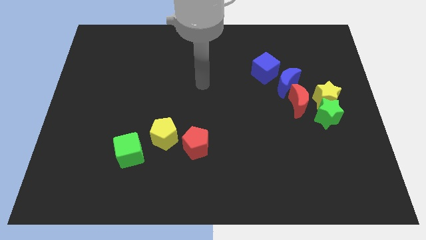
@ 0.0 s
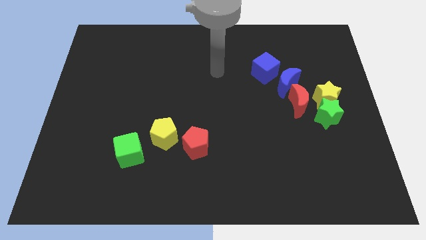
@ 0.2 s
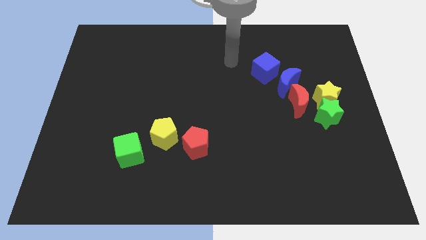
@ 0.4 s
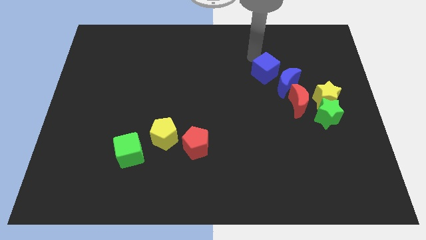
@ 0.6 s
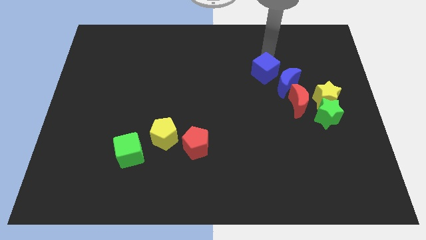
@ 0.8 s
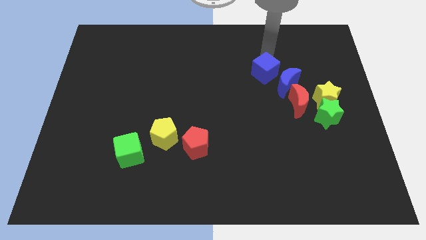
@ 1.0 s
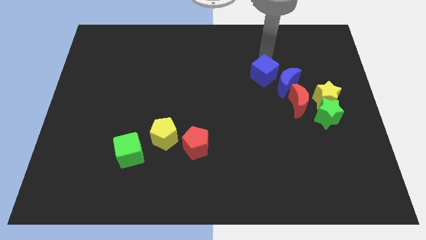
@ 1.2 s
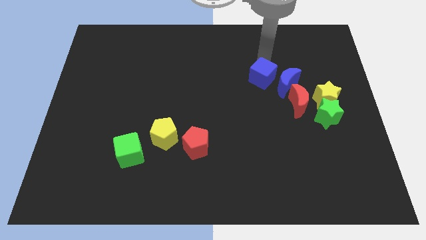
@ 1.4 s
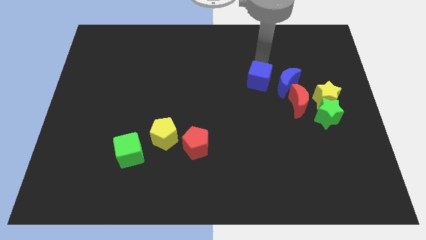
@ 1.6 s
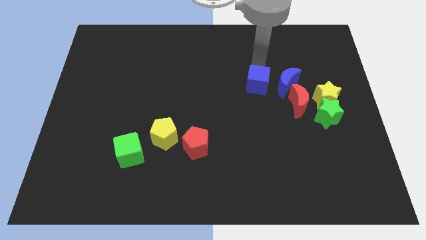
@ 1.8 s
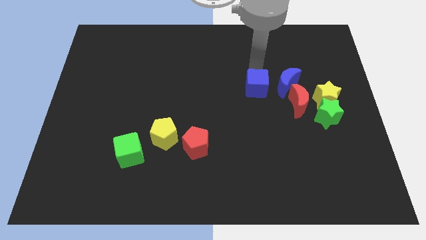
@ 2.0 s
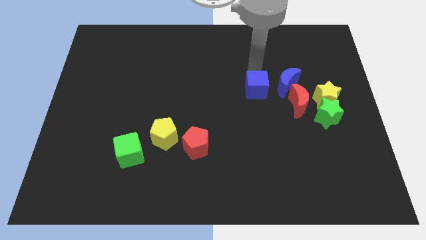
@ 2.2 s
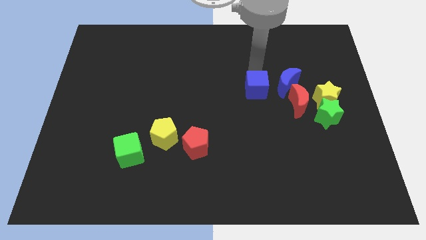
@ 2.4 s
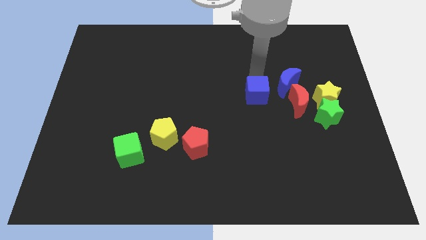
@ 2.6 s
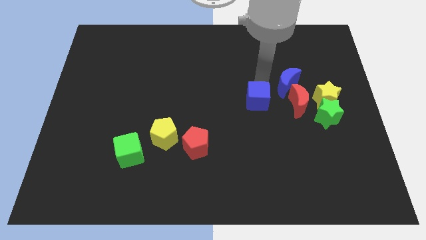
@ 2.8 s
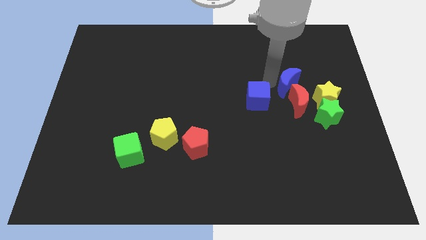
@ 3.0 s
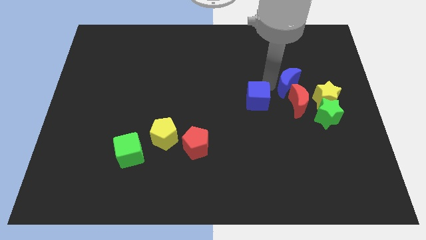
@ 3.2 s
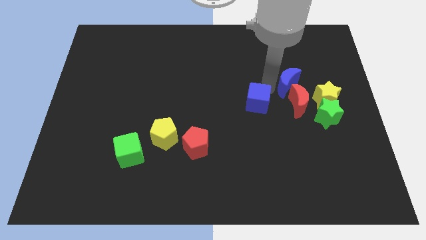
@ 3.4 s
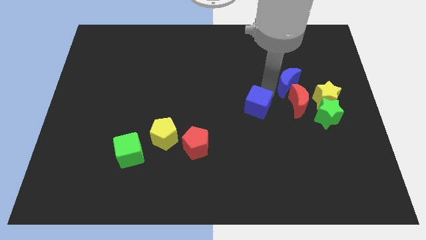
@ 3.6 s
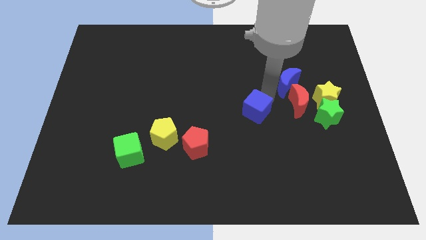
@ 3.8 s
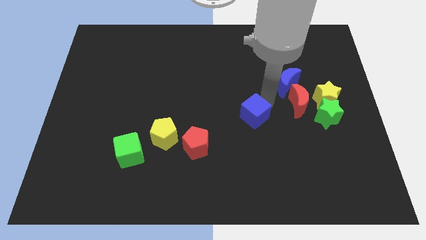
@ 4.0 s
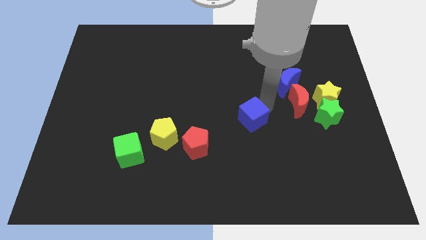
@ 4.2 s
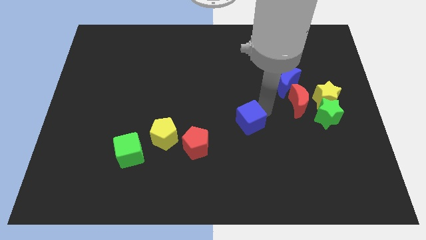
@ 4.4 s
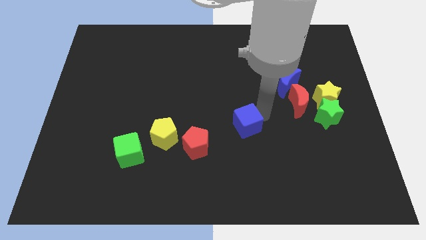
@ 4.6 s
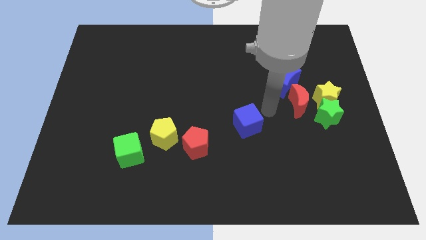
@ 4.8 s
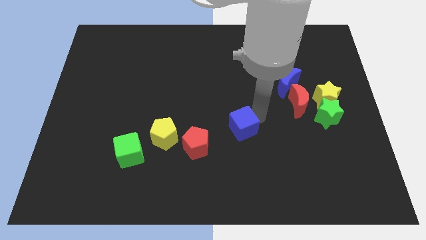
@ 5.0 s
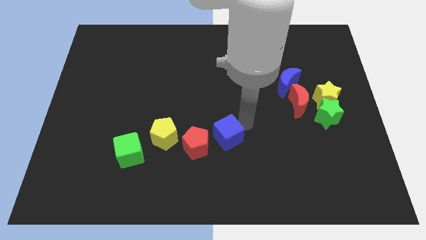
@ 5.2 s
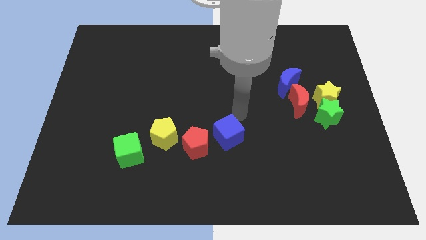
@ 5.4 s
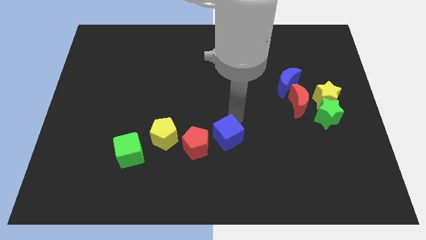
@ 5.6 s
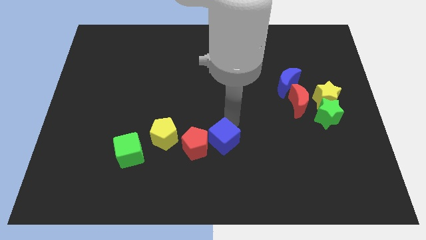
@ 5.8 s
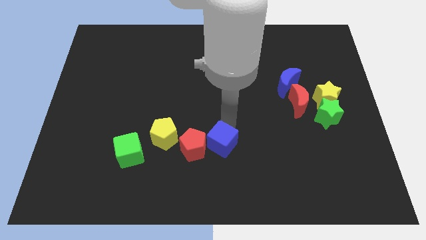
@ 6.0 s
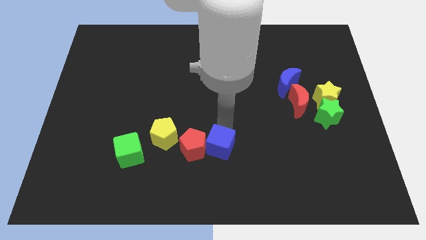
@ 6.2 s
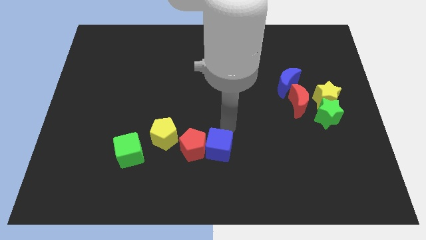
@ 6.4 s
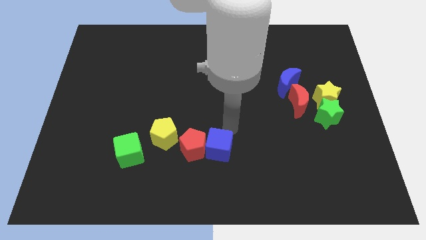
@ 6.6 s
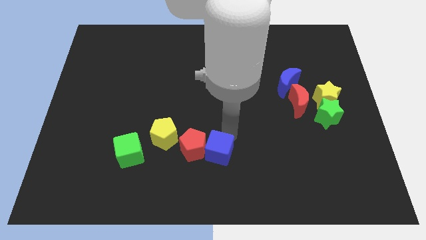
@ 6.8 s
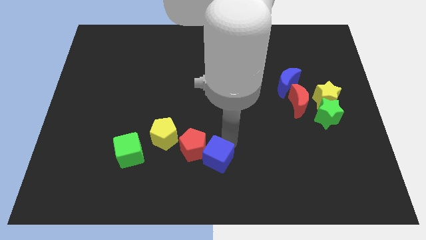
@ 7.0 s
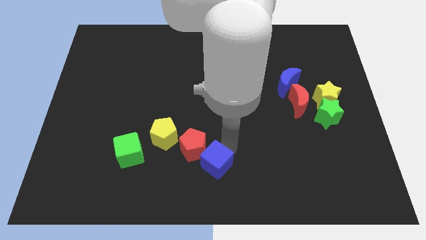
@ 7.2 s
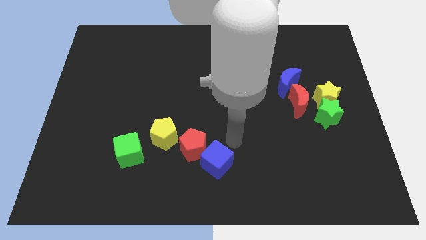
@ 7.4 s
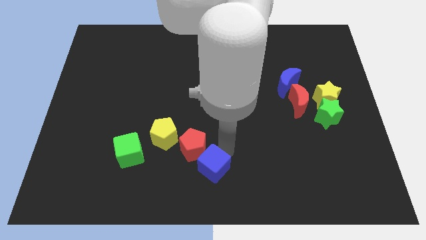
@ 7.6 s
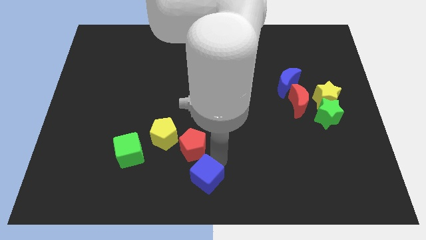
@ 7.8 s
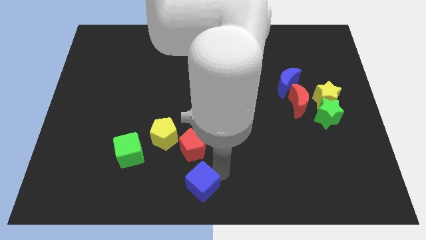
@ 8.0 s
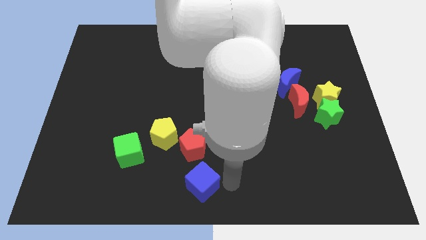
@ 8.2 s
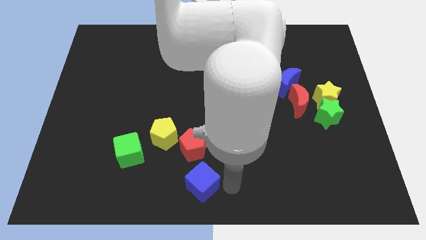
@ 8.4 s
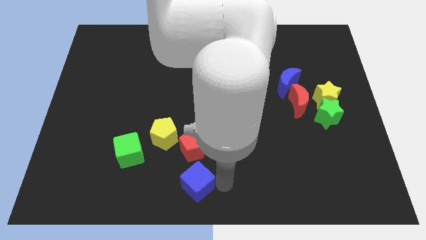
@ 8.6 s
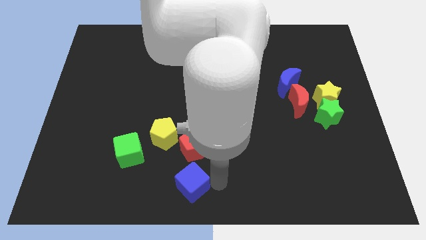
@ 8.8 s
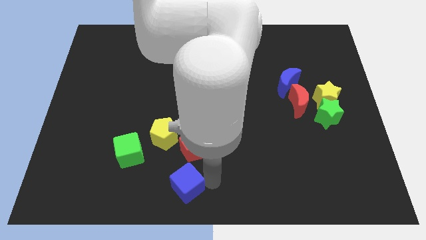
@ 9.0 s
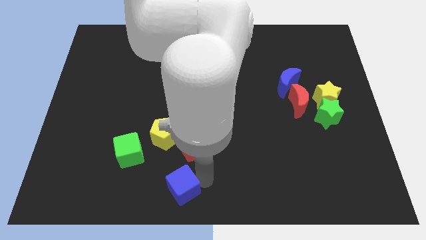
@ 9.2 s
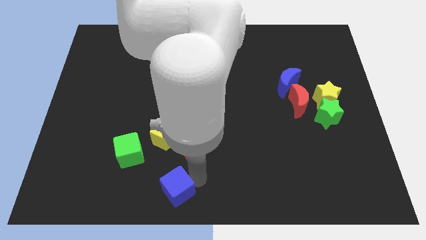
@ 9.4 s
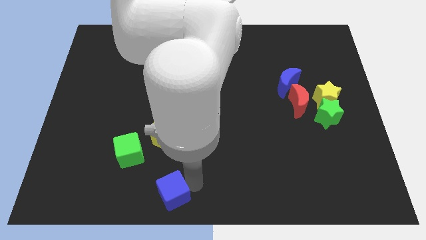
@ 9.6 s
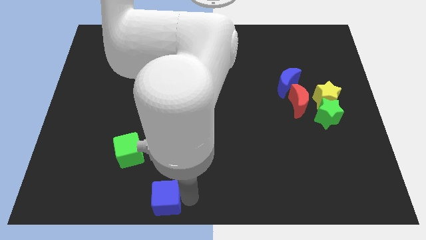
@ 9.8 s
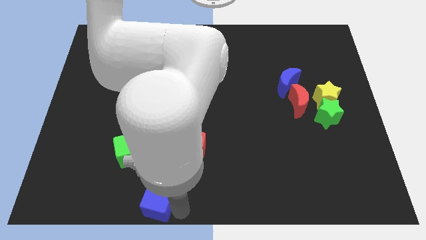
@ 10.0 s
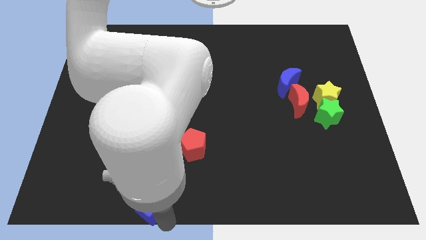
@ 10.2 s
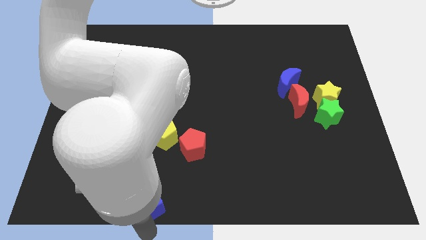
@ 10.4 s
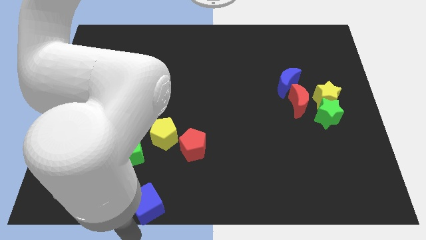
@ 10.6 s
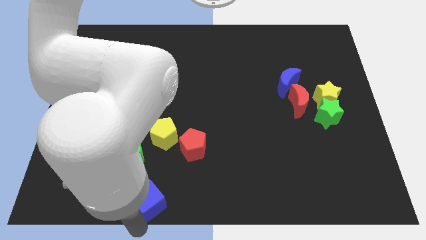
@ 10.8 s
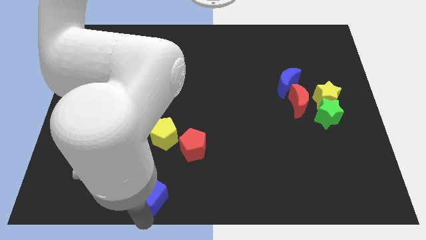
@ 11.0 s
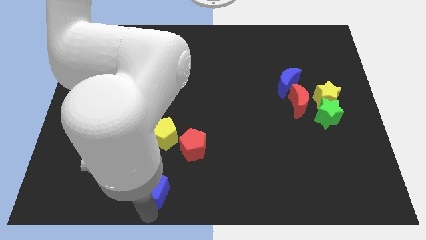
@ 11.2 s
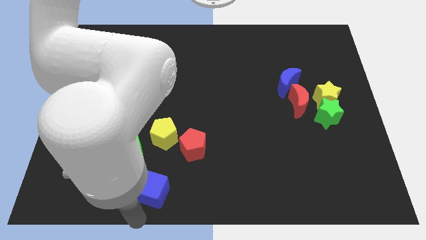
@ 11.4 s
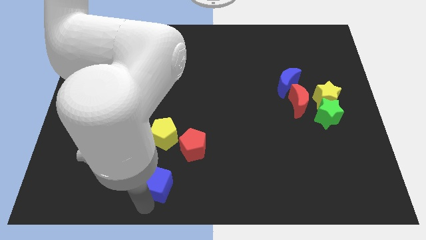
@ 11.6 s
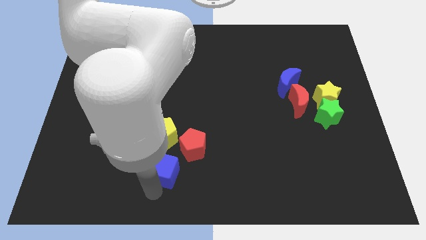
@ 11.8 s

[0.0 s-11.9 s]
slide the blue cube to the right of the green cube

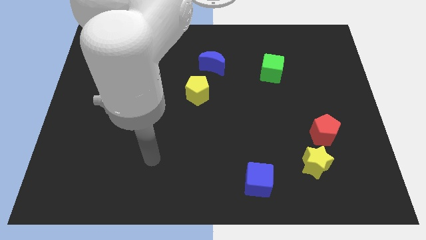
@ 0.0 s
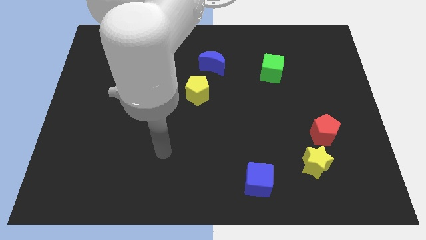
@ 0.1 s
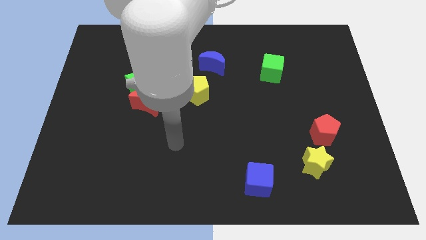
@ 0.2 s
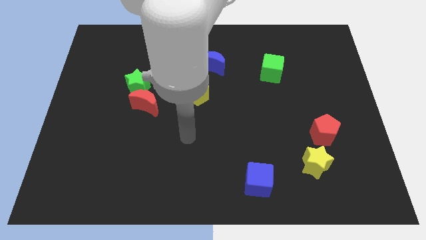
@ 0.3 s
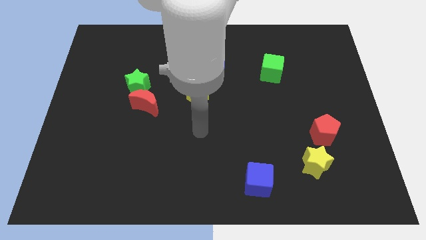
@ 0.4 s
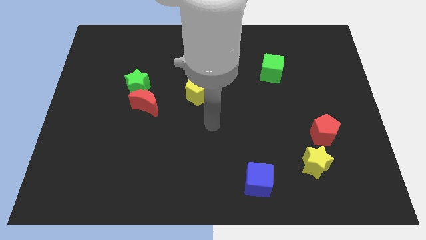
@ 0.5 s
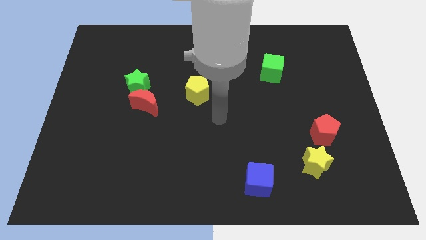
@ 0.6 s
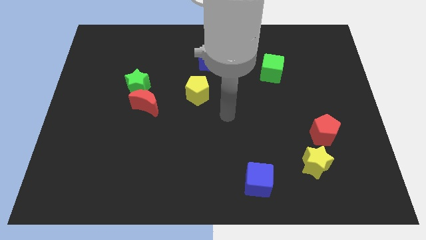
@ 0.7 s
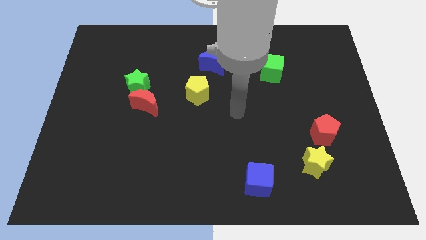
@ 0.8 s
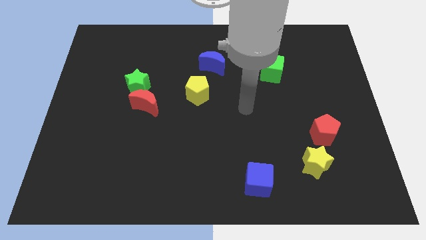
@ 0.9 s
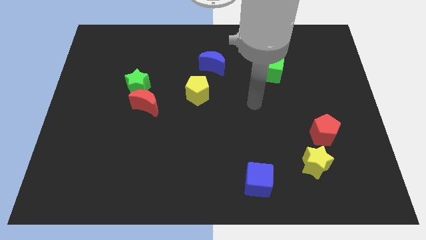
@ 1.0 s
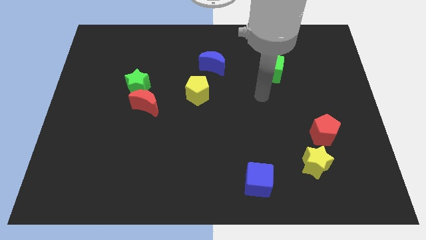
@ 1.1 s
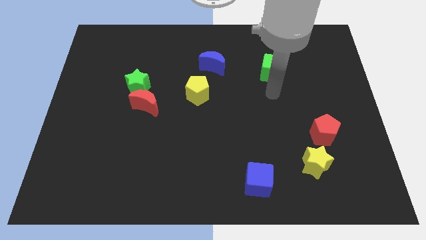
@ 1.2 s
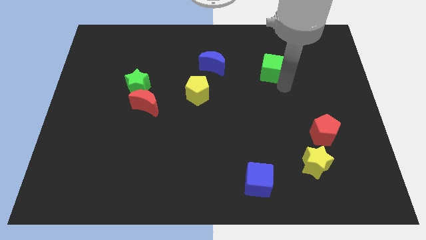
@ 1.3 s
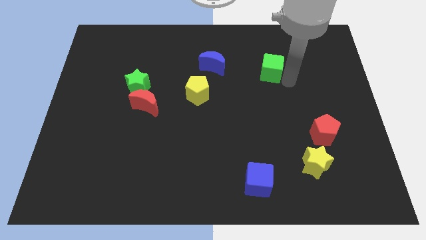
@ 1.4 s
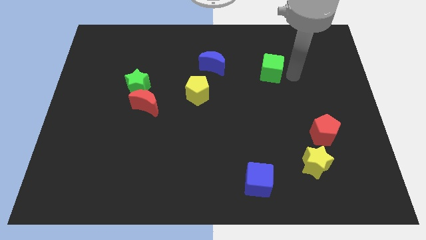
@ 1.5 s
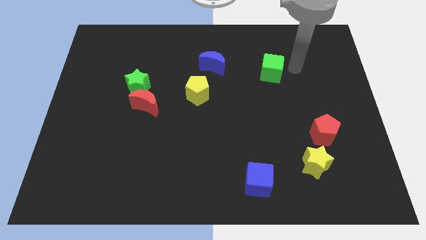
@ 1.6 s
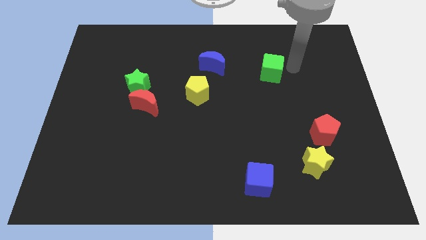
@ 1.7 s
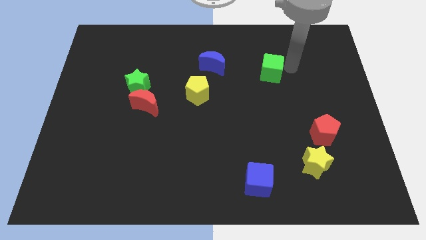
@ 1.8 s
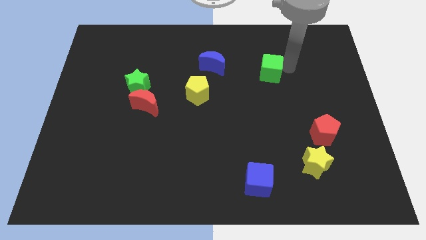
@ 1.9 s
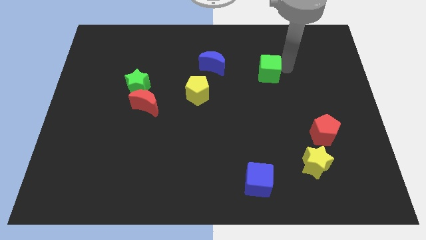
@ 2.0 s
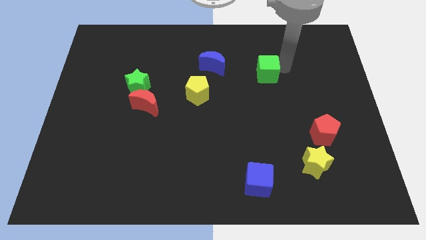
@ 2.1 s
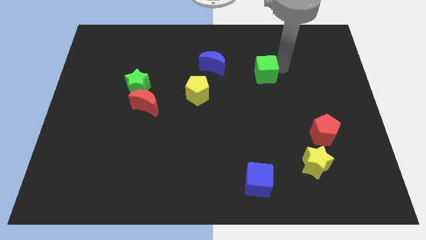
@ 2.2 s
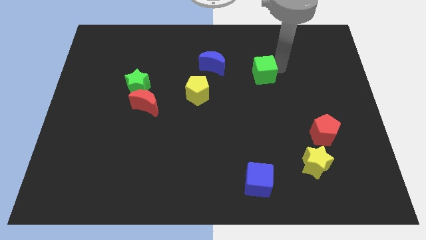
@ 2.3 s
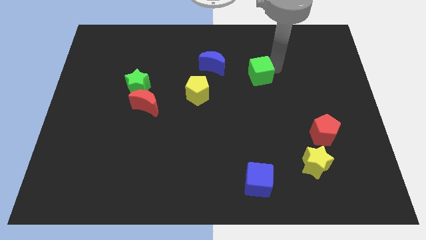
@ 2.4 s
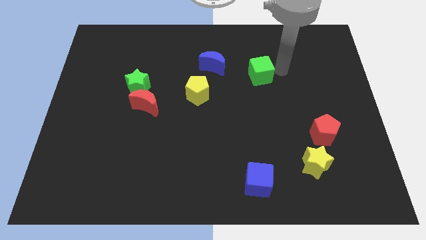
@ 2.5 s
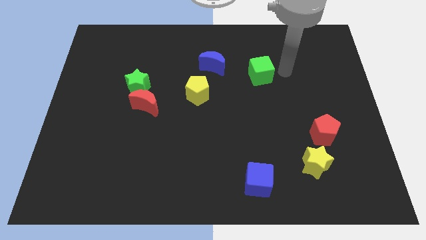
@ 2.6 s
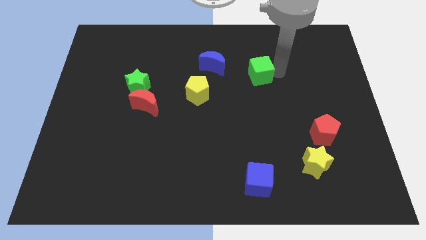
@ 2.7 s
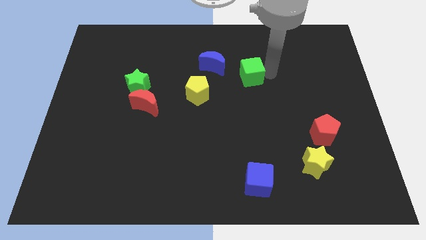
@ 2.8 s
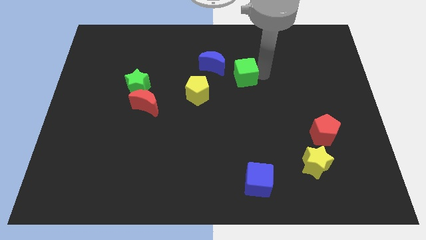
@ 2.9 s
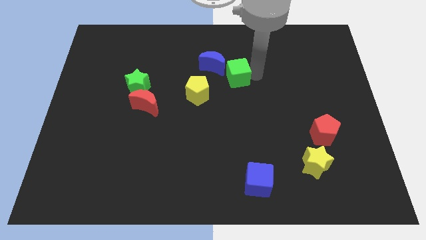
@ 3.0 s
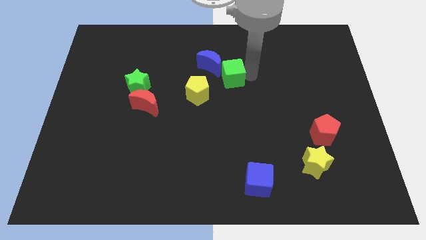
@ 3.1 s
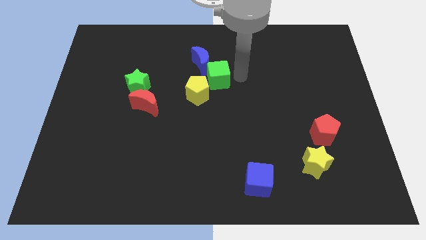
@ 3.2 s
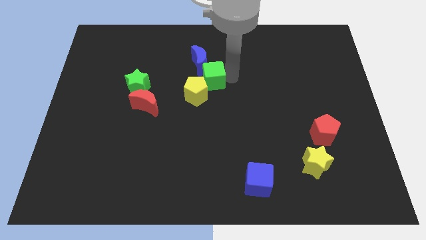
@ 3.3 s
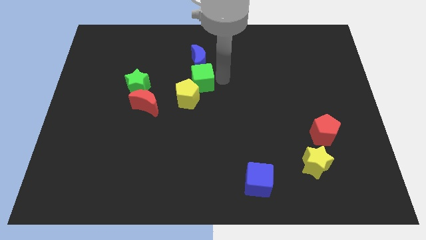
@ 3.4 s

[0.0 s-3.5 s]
push the green cube to the bottom left side of the blue moon
